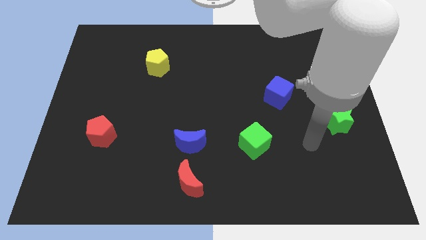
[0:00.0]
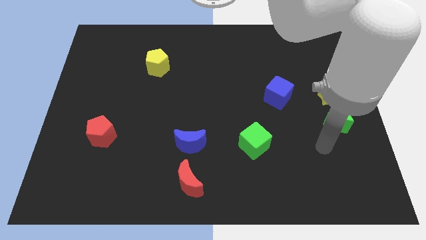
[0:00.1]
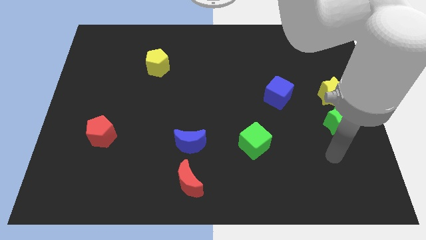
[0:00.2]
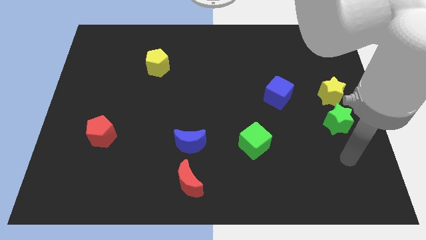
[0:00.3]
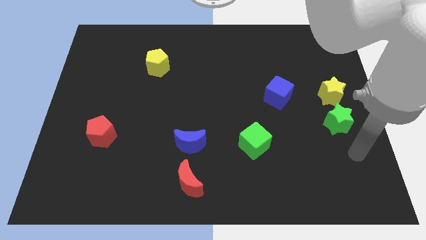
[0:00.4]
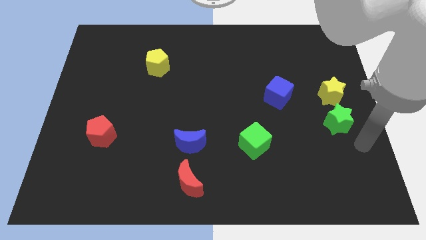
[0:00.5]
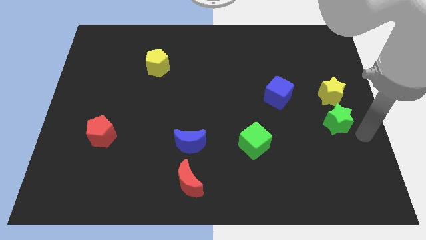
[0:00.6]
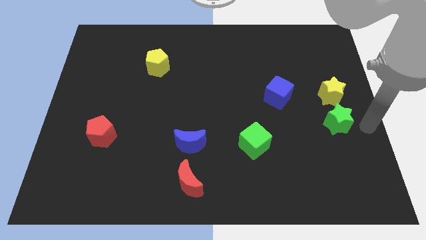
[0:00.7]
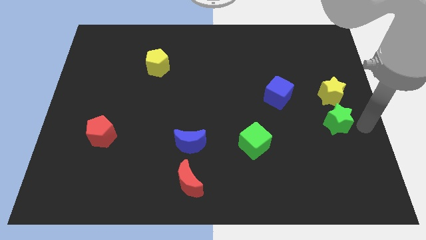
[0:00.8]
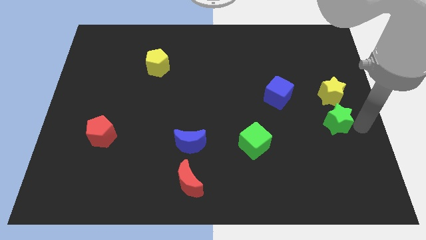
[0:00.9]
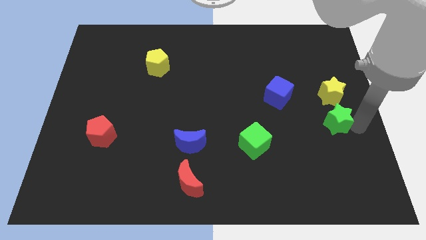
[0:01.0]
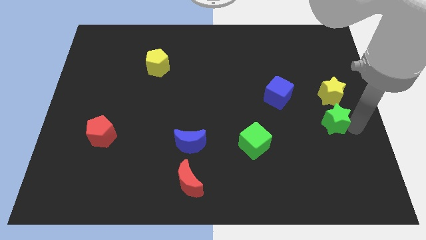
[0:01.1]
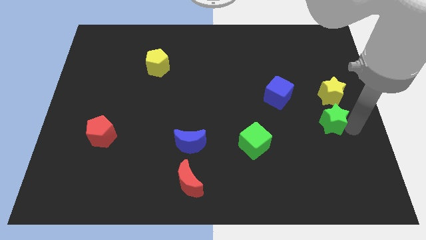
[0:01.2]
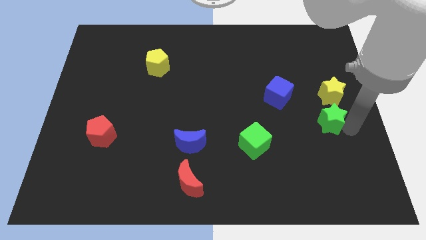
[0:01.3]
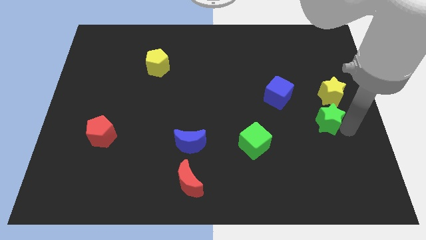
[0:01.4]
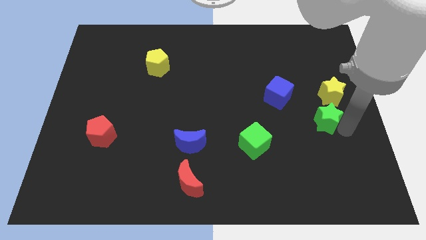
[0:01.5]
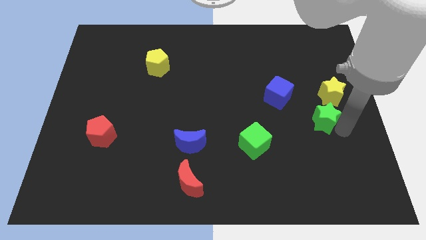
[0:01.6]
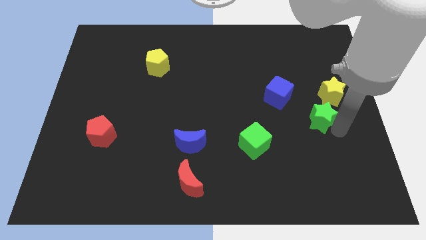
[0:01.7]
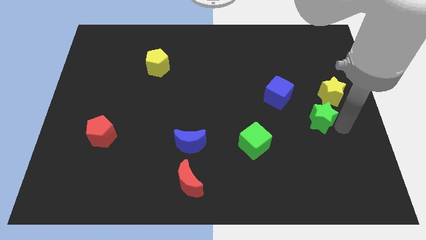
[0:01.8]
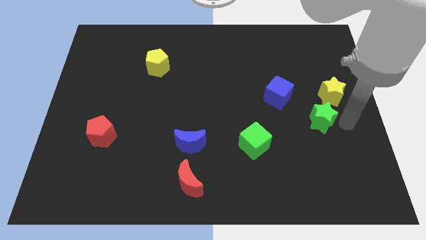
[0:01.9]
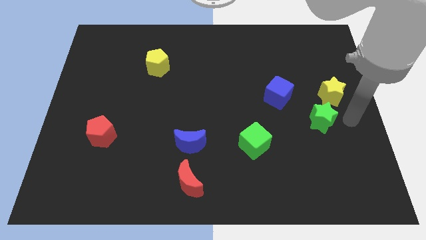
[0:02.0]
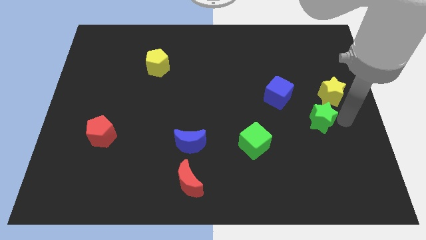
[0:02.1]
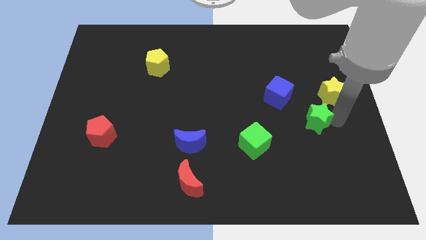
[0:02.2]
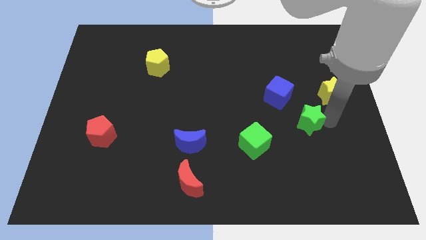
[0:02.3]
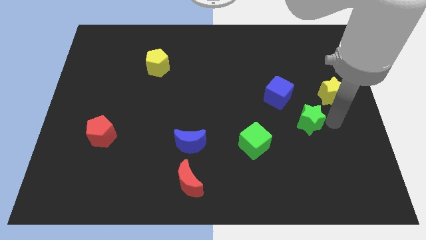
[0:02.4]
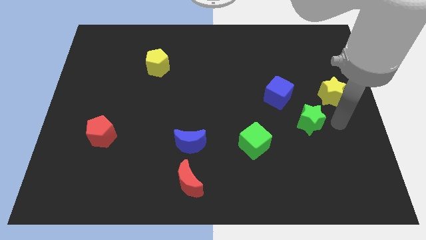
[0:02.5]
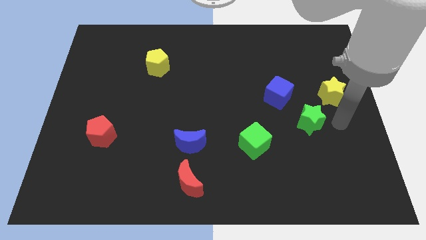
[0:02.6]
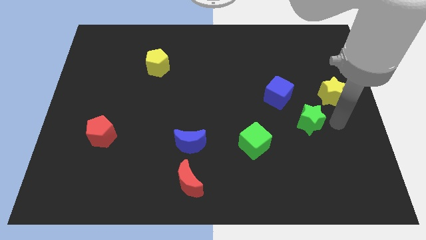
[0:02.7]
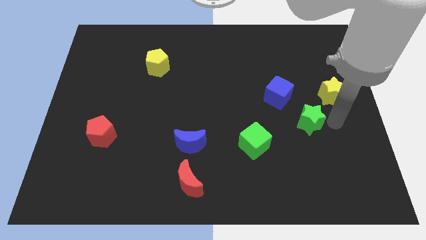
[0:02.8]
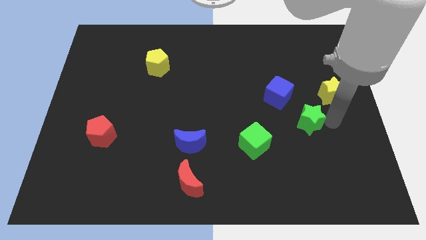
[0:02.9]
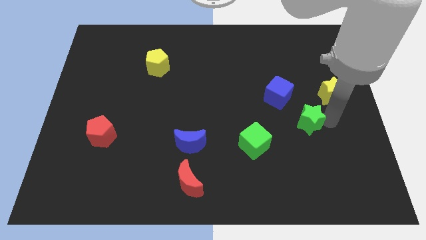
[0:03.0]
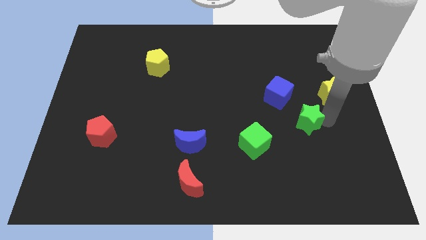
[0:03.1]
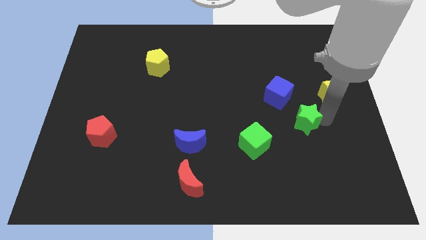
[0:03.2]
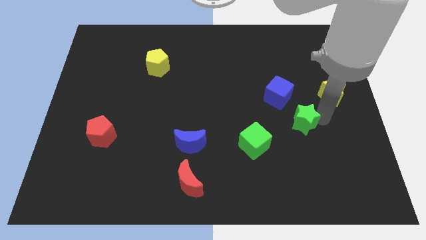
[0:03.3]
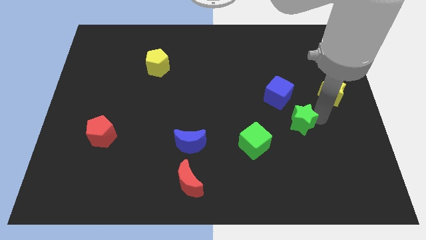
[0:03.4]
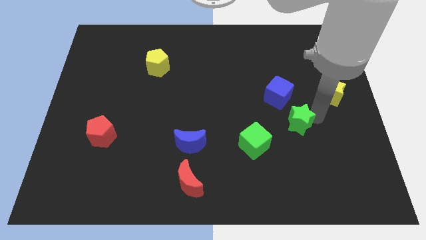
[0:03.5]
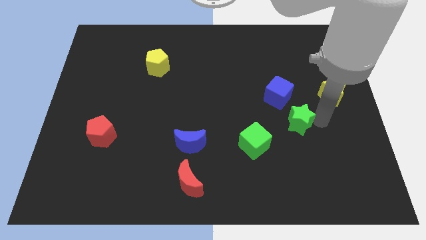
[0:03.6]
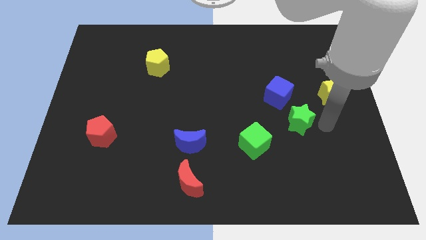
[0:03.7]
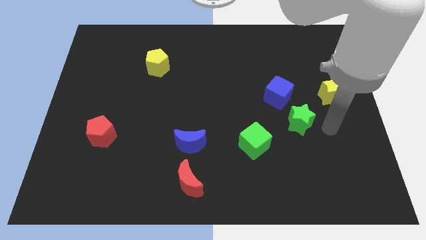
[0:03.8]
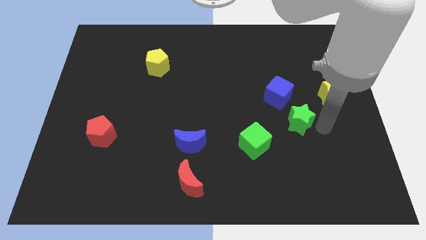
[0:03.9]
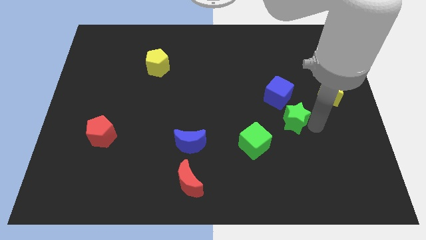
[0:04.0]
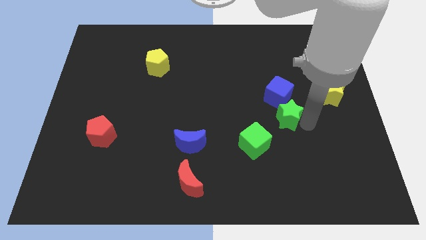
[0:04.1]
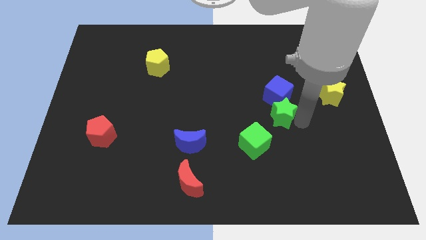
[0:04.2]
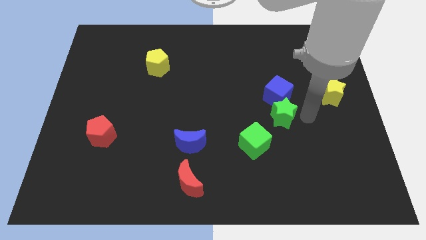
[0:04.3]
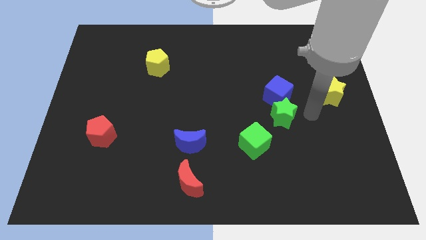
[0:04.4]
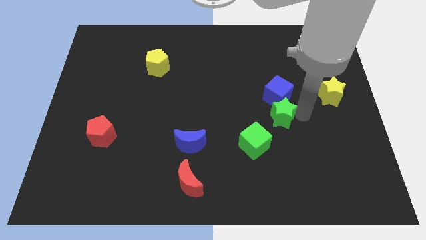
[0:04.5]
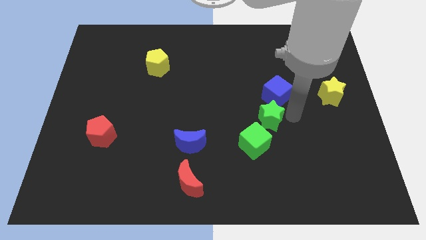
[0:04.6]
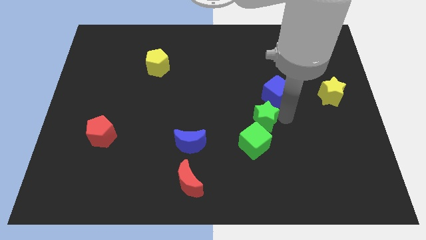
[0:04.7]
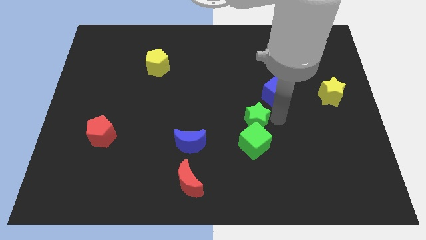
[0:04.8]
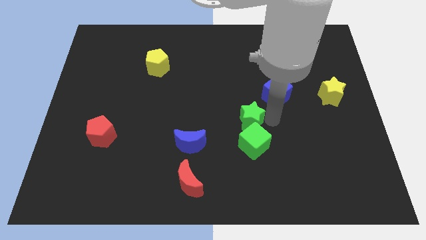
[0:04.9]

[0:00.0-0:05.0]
slide the green star left

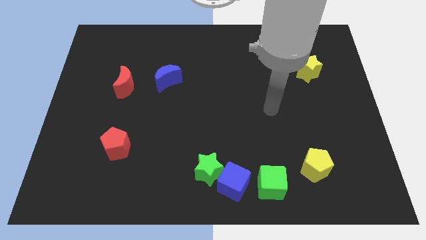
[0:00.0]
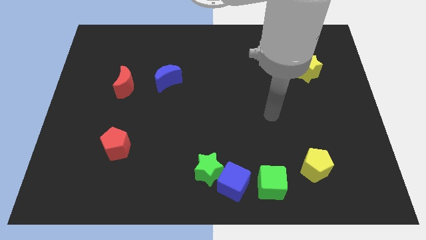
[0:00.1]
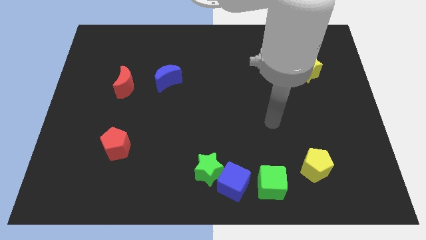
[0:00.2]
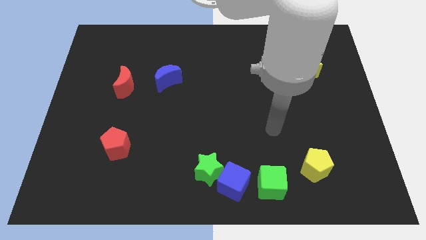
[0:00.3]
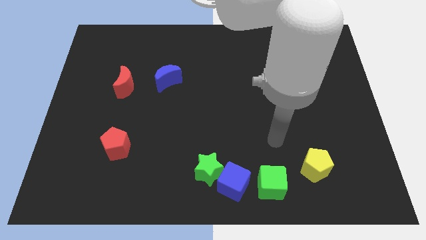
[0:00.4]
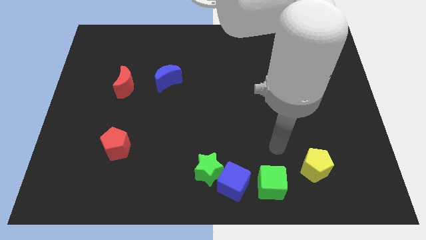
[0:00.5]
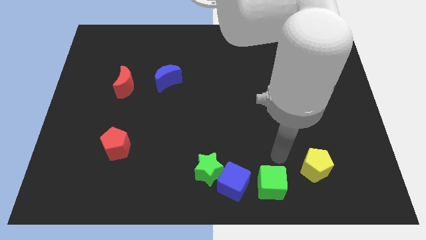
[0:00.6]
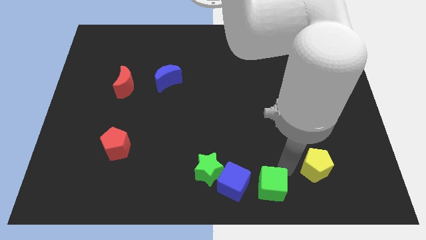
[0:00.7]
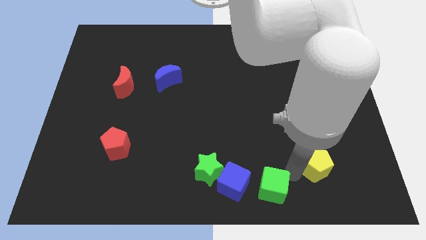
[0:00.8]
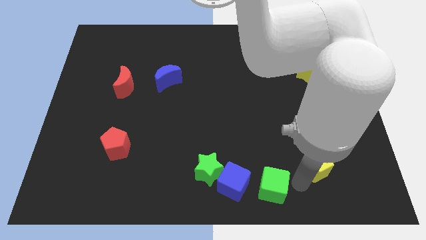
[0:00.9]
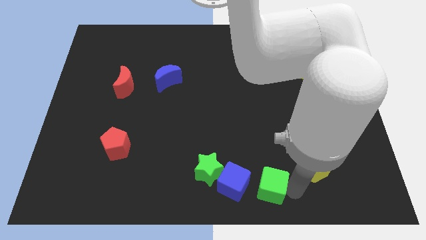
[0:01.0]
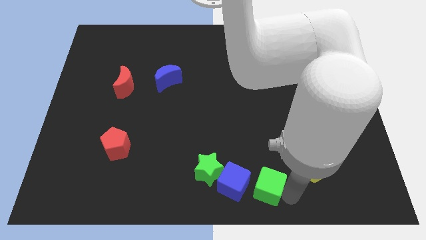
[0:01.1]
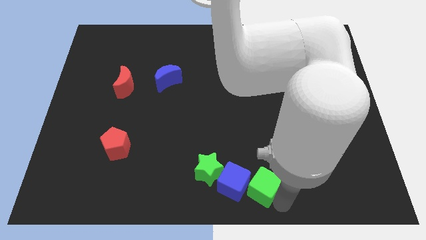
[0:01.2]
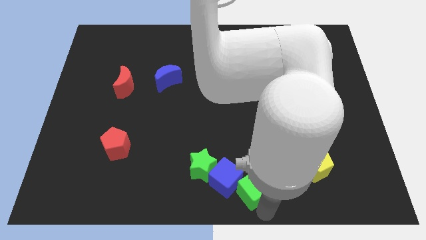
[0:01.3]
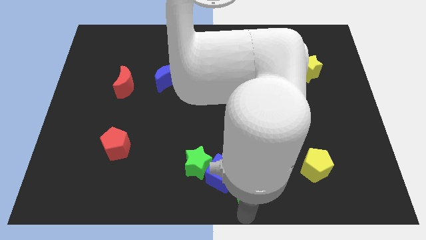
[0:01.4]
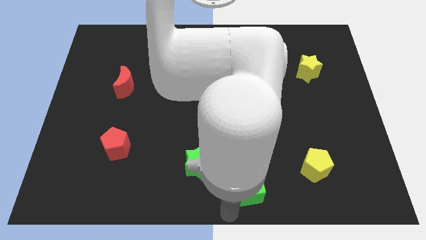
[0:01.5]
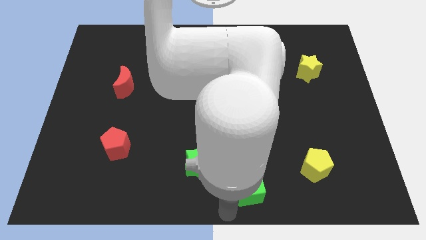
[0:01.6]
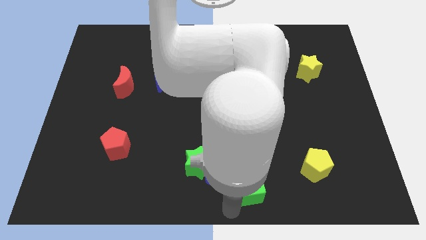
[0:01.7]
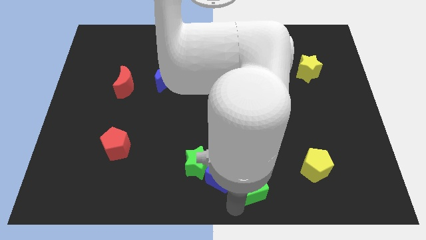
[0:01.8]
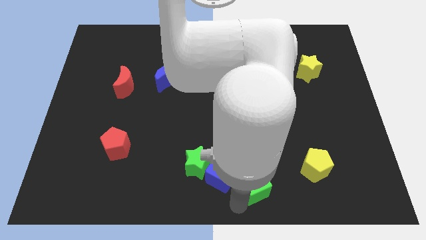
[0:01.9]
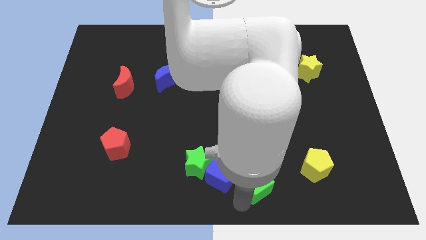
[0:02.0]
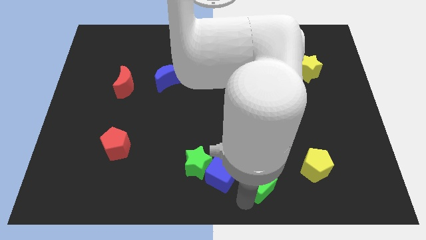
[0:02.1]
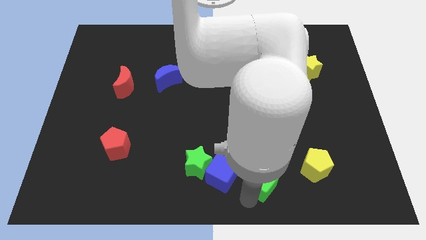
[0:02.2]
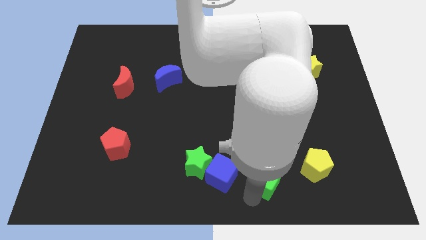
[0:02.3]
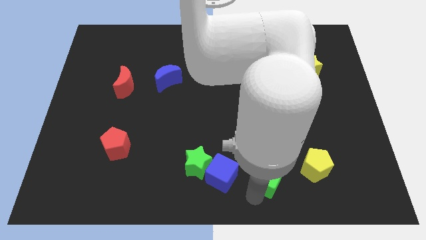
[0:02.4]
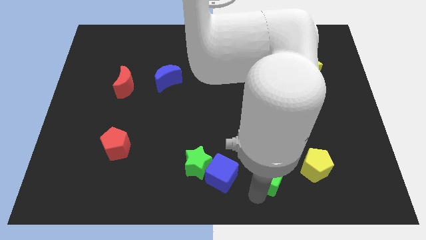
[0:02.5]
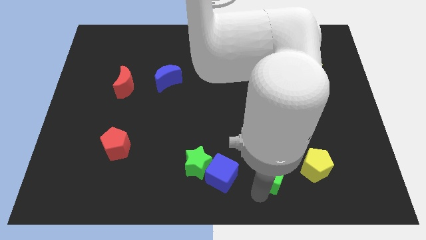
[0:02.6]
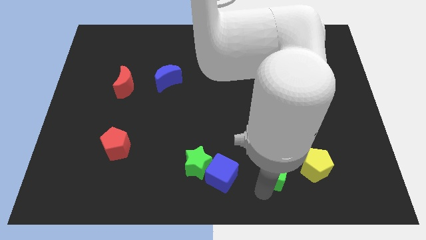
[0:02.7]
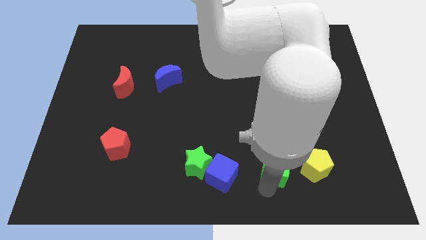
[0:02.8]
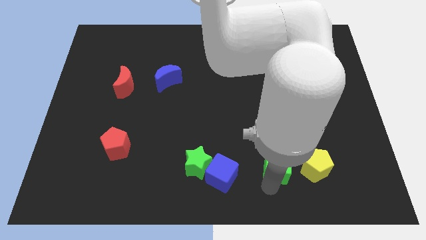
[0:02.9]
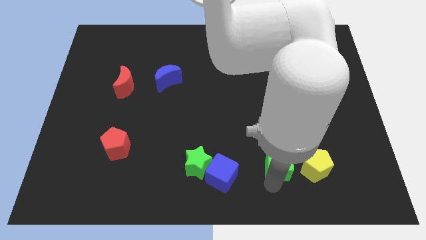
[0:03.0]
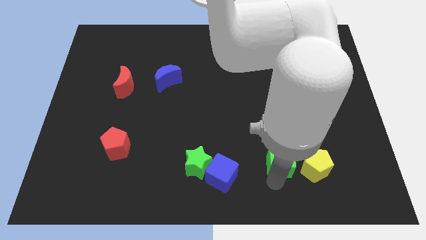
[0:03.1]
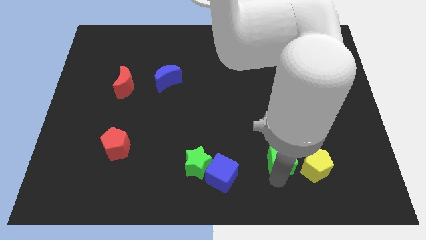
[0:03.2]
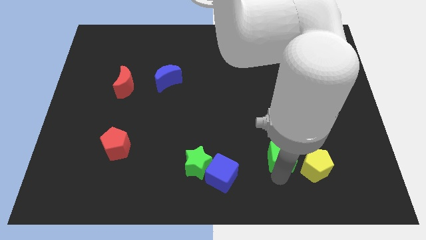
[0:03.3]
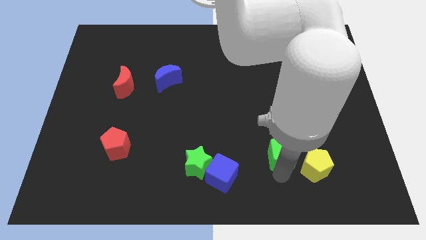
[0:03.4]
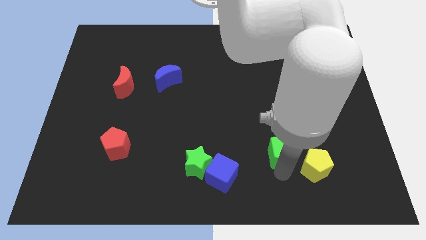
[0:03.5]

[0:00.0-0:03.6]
slightly move the green cube upwards
